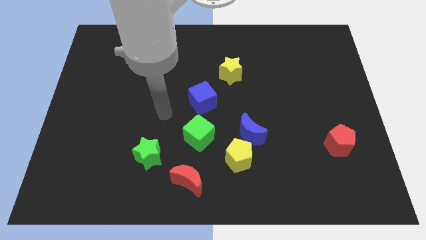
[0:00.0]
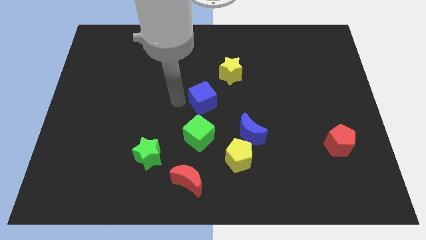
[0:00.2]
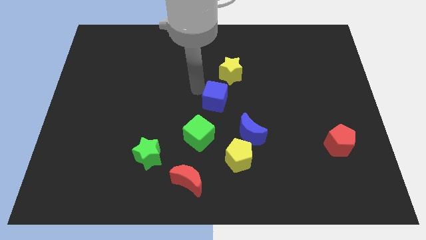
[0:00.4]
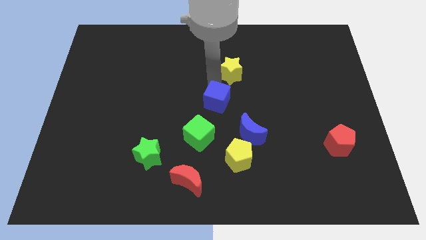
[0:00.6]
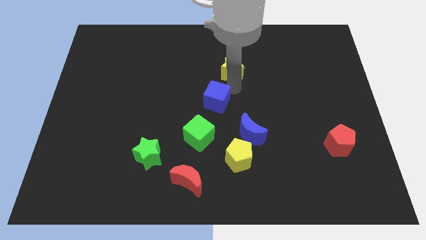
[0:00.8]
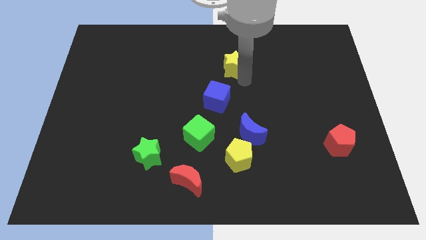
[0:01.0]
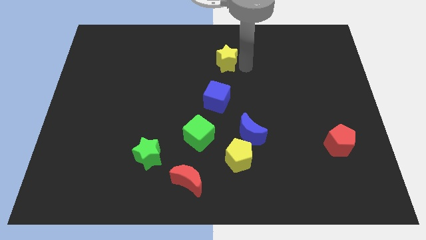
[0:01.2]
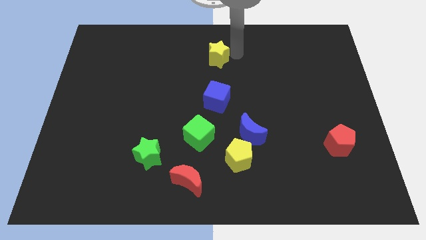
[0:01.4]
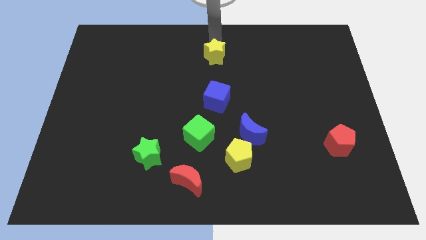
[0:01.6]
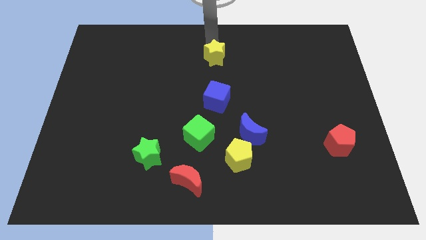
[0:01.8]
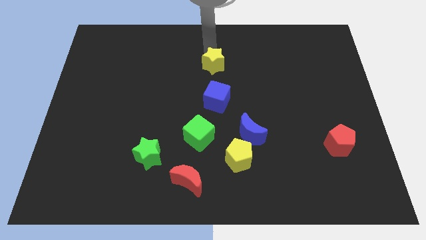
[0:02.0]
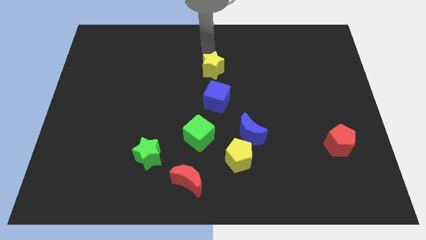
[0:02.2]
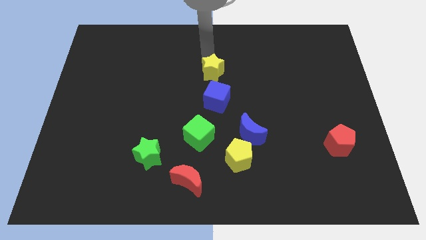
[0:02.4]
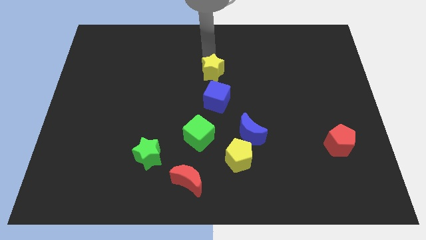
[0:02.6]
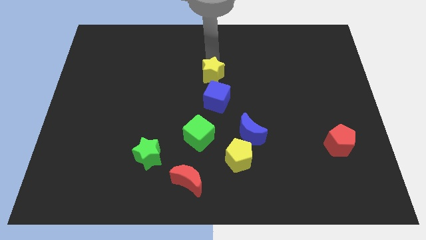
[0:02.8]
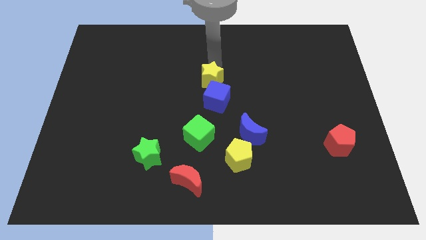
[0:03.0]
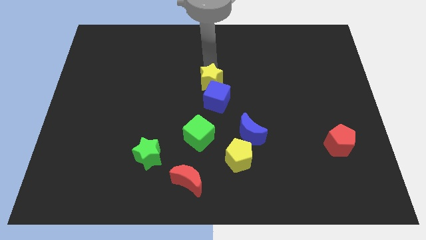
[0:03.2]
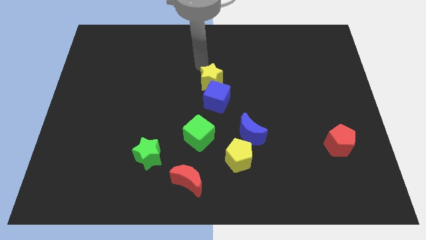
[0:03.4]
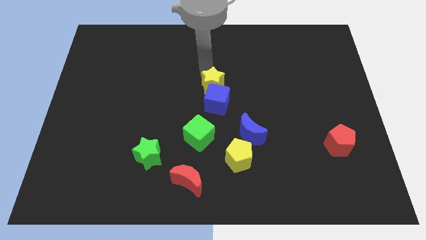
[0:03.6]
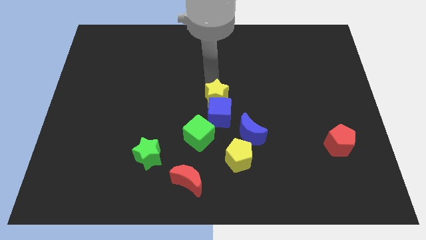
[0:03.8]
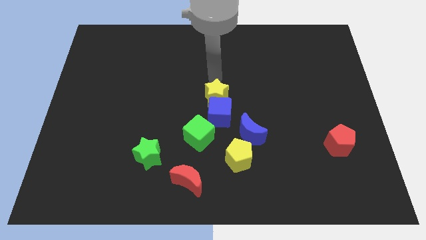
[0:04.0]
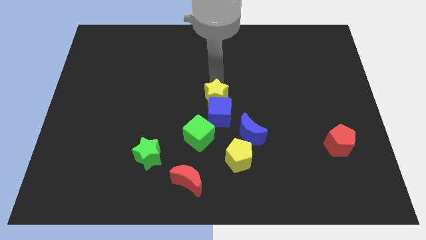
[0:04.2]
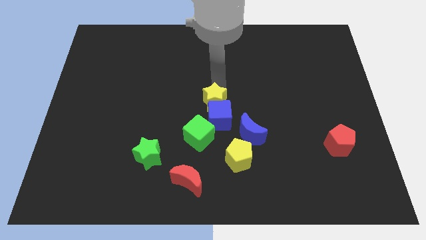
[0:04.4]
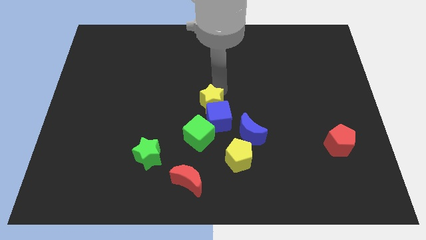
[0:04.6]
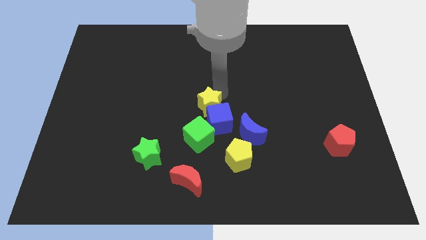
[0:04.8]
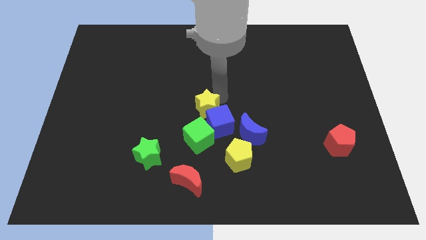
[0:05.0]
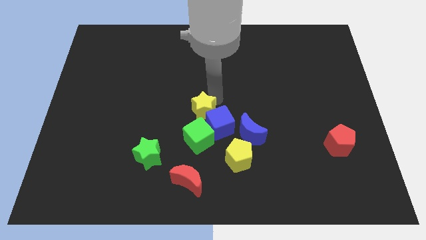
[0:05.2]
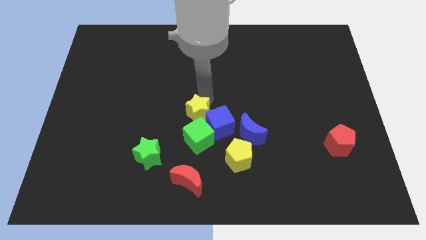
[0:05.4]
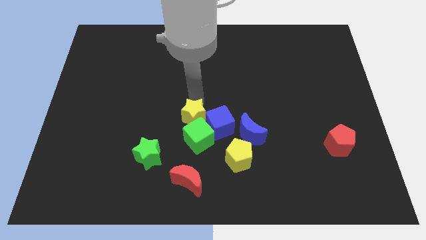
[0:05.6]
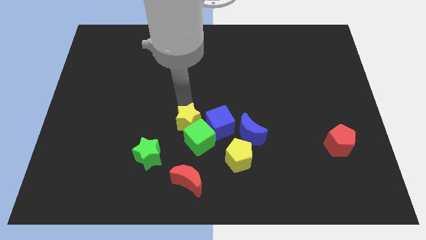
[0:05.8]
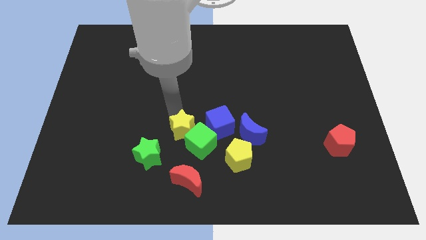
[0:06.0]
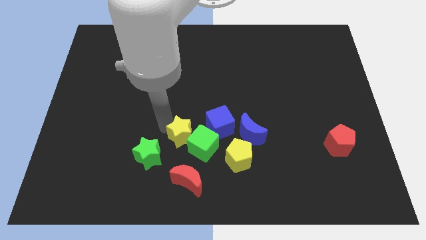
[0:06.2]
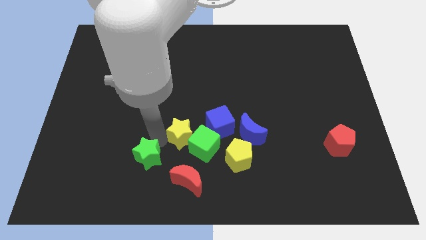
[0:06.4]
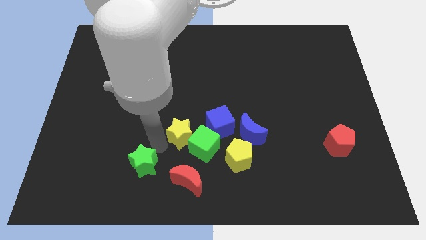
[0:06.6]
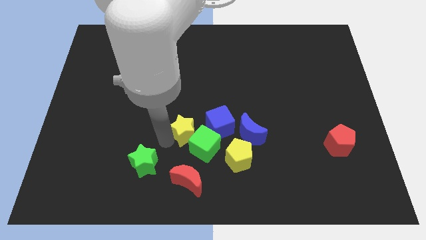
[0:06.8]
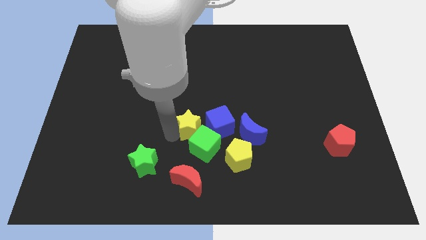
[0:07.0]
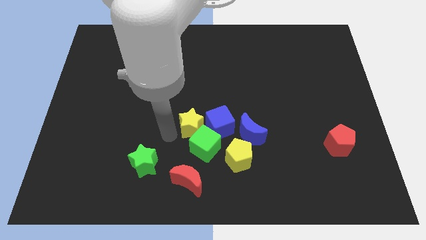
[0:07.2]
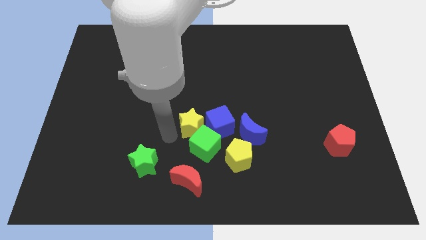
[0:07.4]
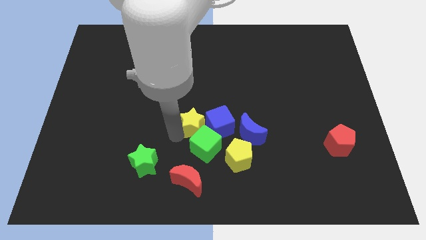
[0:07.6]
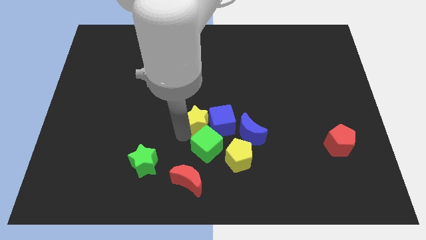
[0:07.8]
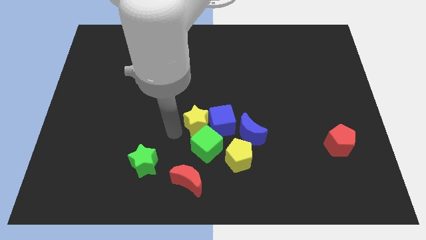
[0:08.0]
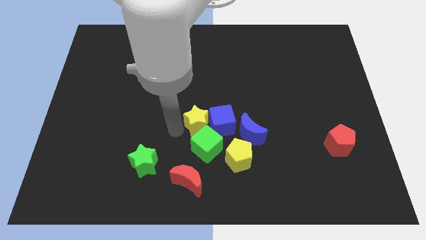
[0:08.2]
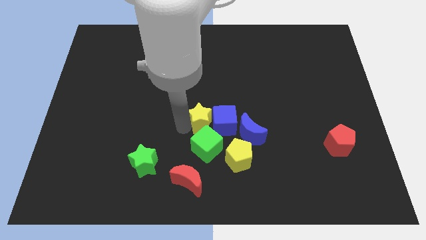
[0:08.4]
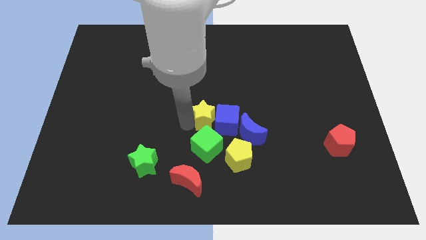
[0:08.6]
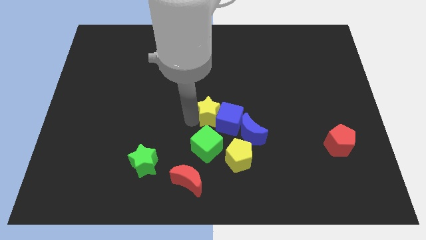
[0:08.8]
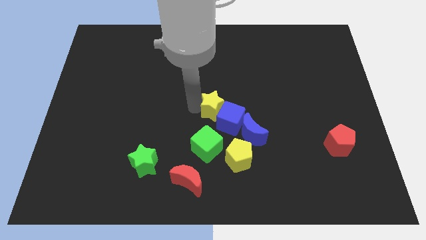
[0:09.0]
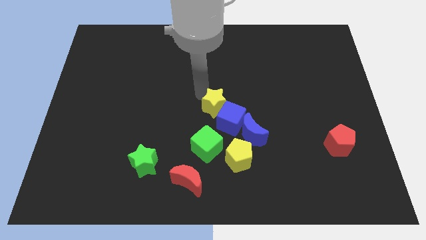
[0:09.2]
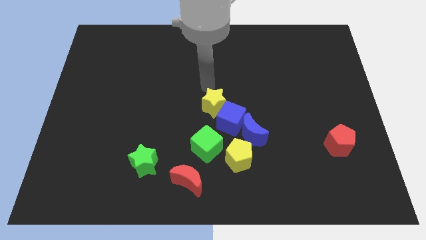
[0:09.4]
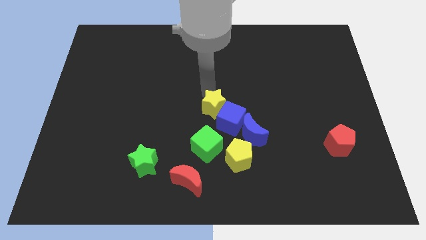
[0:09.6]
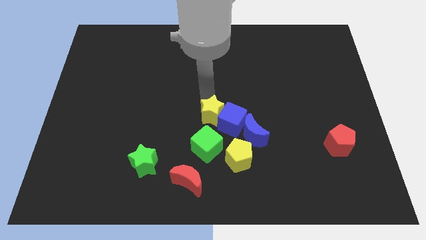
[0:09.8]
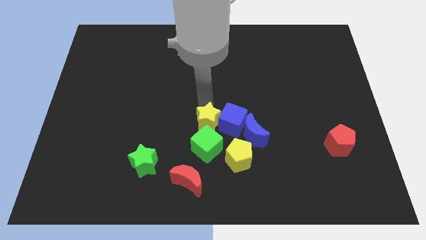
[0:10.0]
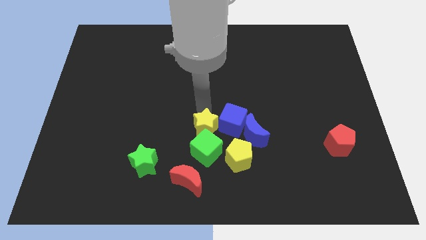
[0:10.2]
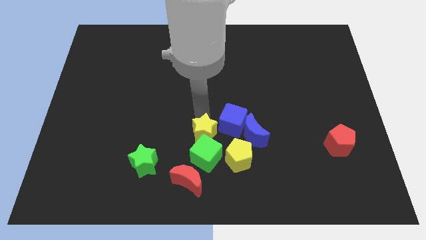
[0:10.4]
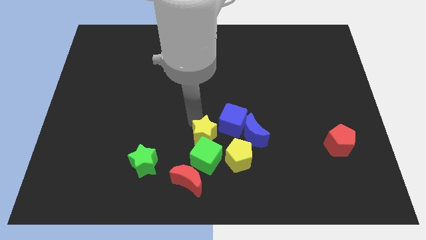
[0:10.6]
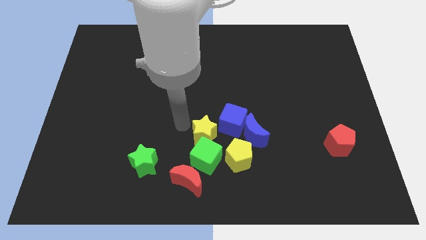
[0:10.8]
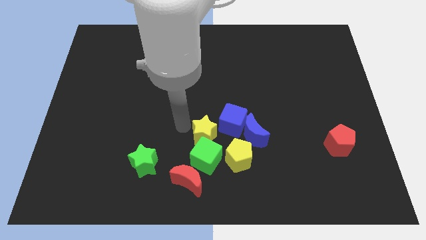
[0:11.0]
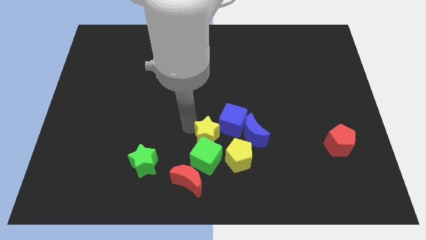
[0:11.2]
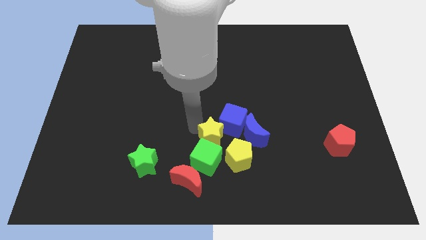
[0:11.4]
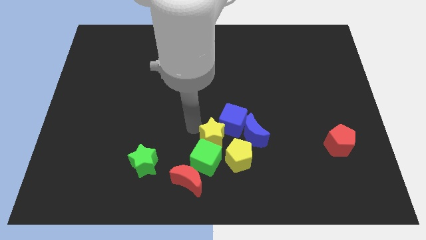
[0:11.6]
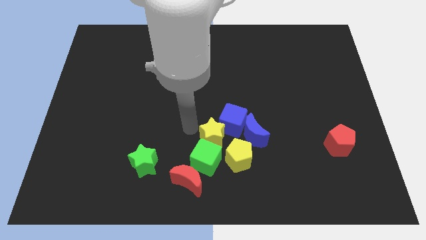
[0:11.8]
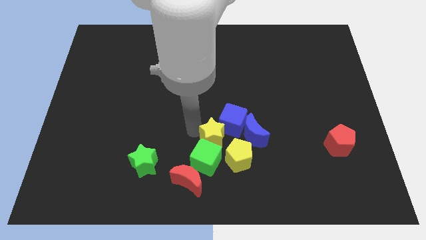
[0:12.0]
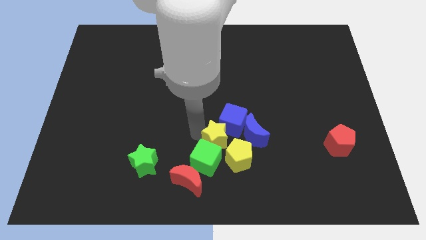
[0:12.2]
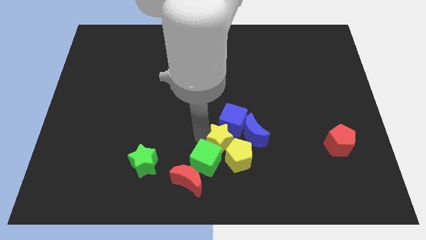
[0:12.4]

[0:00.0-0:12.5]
push the yellow star towards the yellow pentagon
